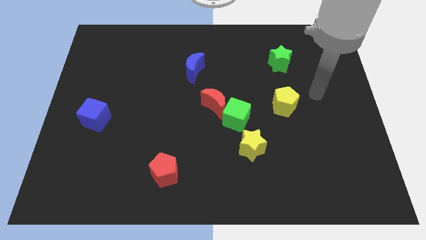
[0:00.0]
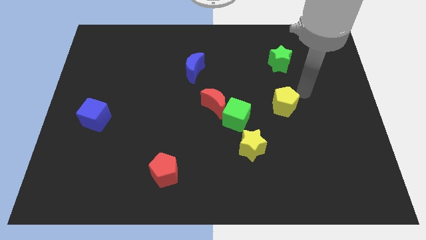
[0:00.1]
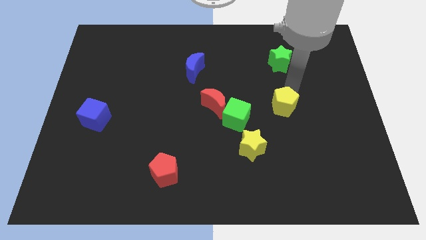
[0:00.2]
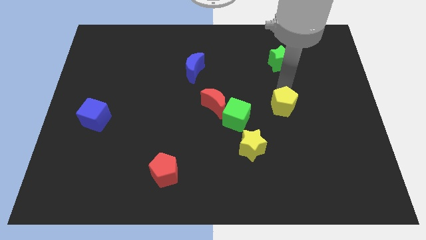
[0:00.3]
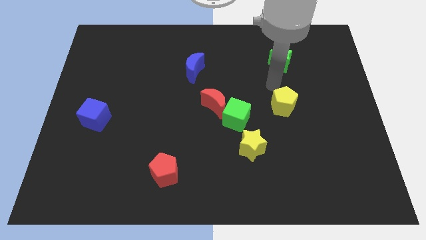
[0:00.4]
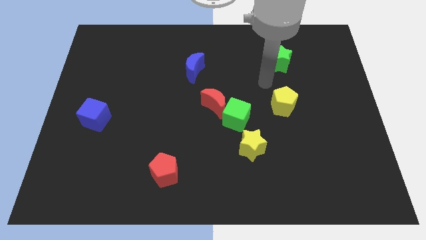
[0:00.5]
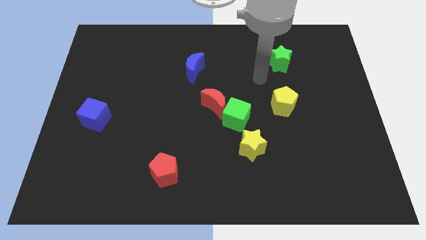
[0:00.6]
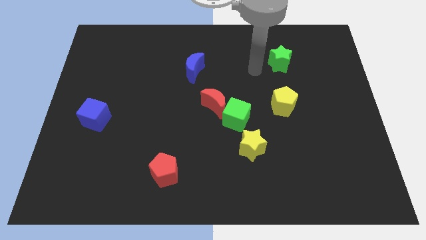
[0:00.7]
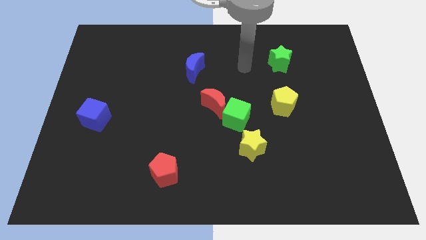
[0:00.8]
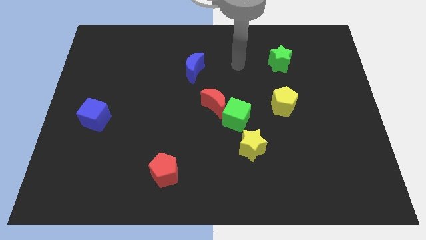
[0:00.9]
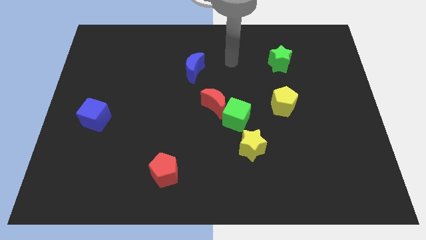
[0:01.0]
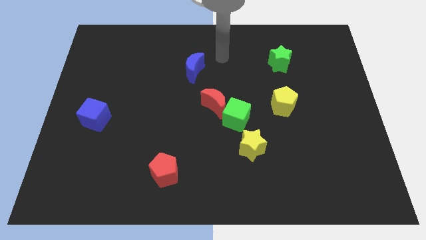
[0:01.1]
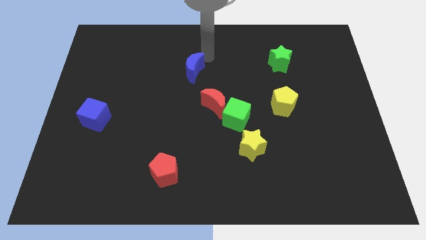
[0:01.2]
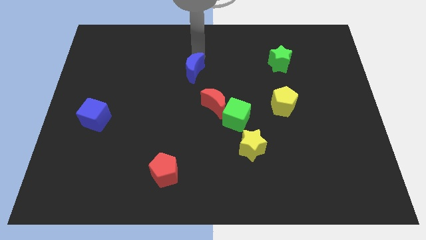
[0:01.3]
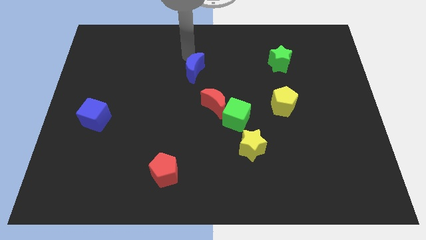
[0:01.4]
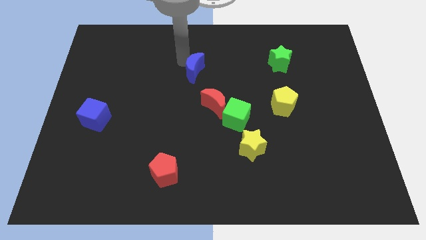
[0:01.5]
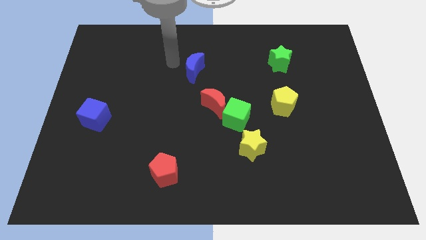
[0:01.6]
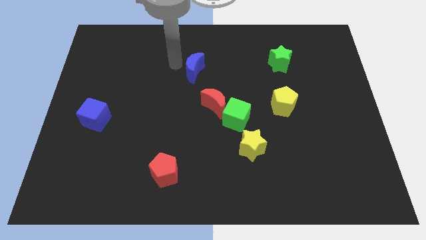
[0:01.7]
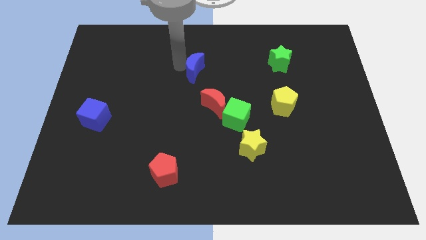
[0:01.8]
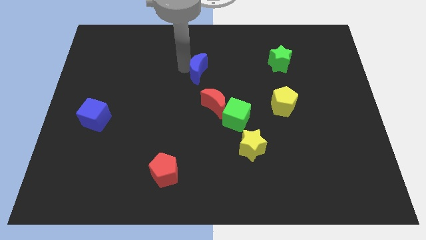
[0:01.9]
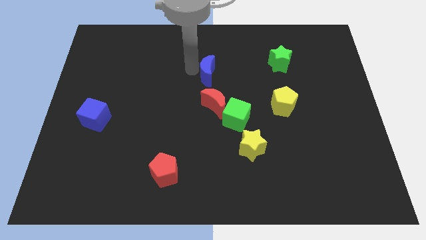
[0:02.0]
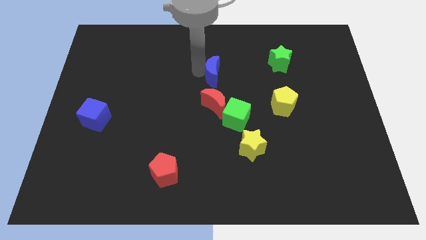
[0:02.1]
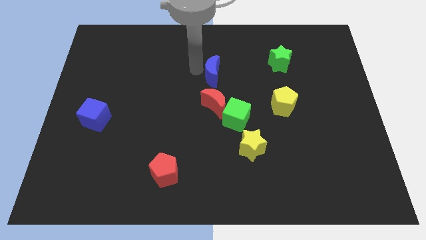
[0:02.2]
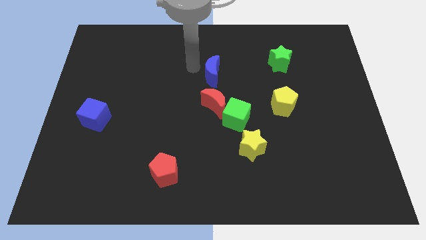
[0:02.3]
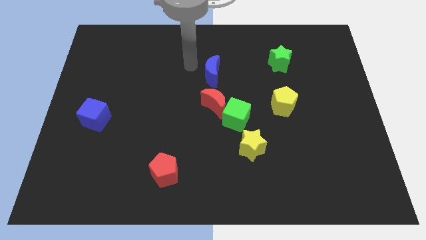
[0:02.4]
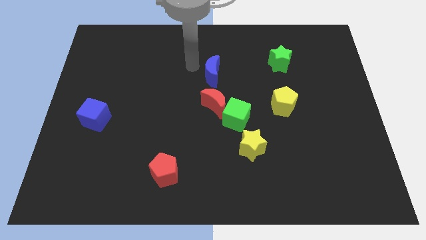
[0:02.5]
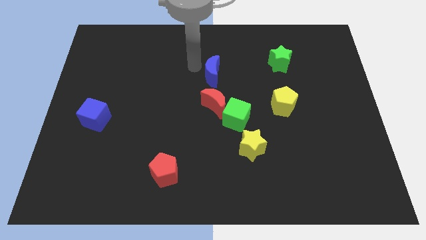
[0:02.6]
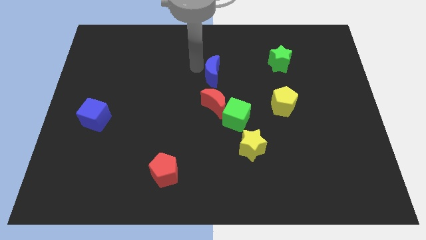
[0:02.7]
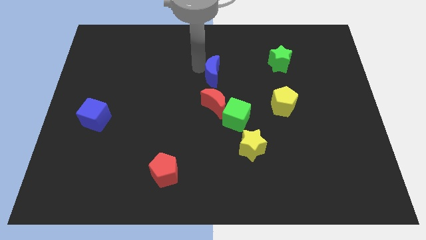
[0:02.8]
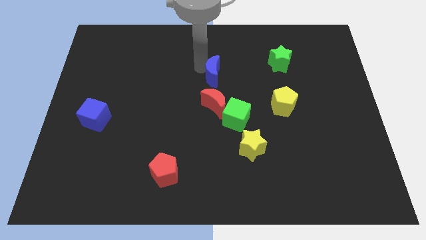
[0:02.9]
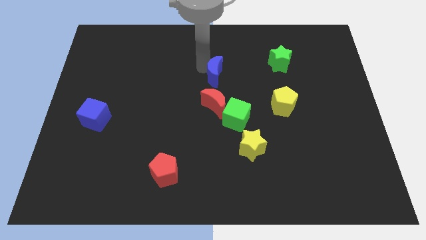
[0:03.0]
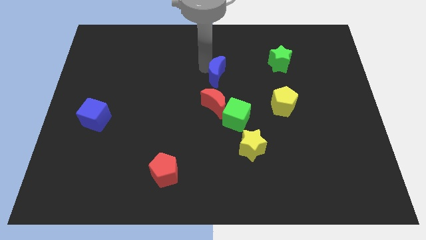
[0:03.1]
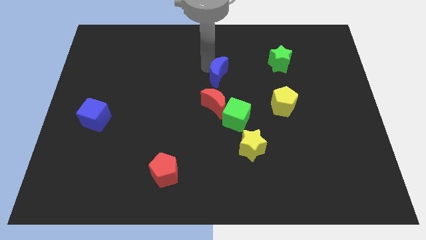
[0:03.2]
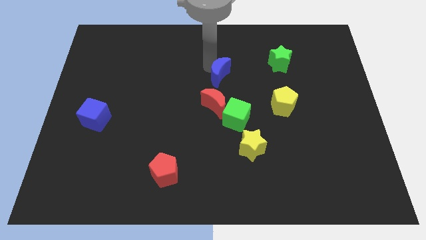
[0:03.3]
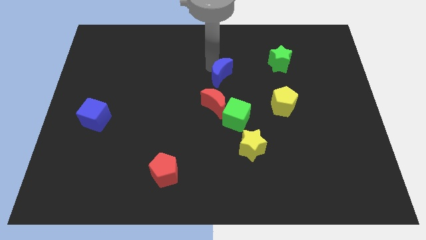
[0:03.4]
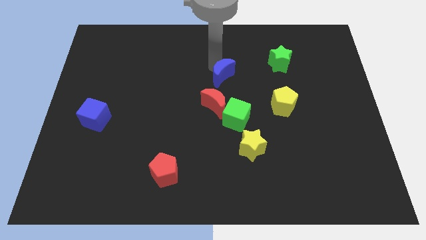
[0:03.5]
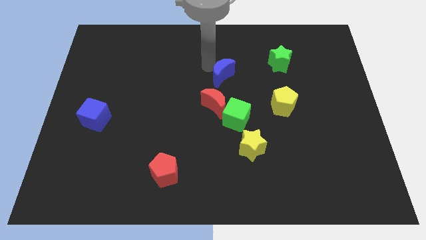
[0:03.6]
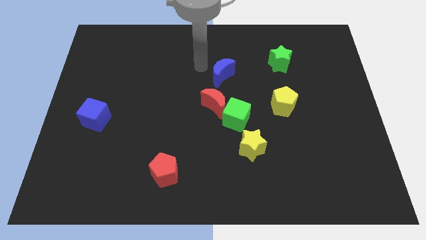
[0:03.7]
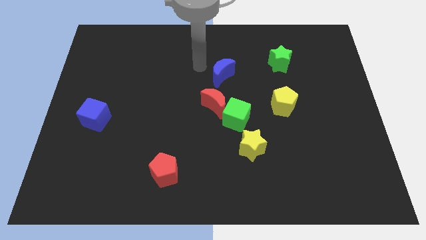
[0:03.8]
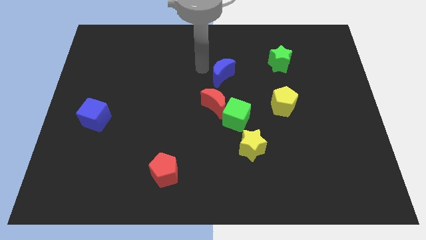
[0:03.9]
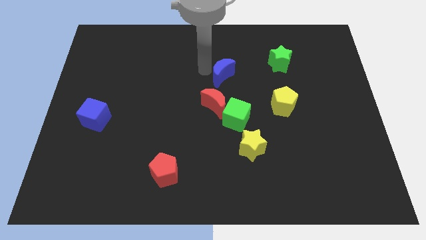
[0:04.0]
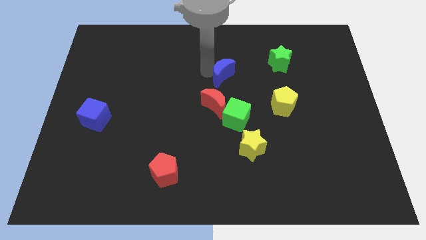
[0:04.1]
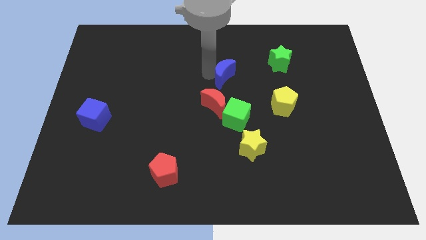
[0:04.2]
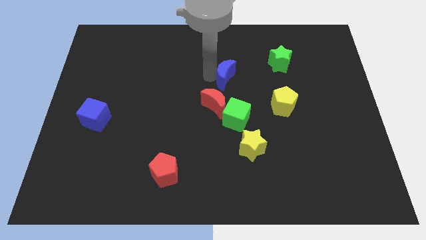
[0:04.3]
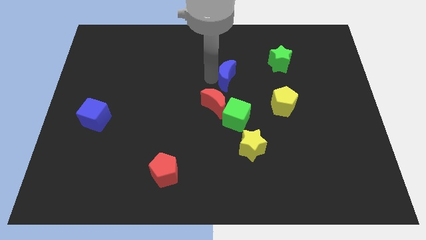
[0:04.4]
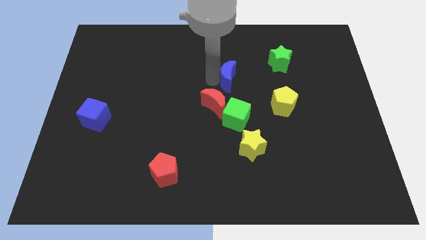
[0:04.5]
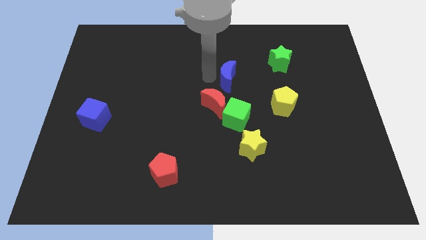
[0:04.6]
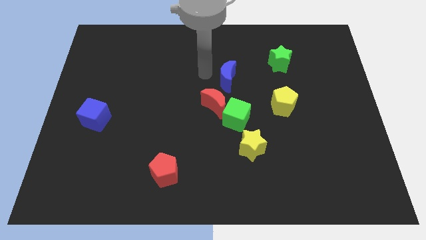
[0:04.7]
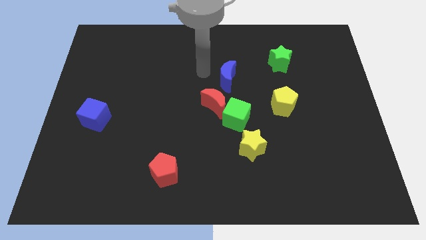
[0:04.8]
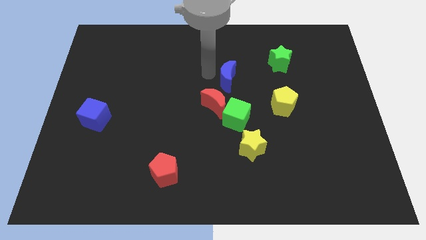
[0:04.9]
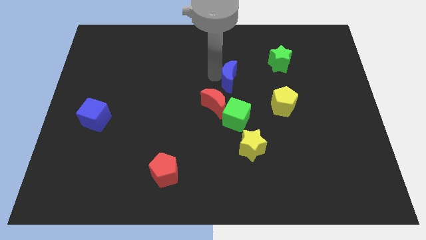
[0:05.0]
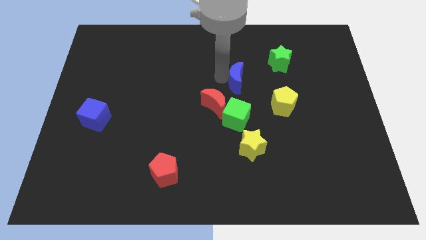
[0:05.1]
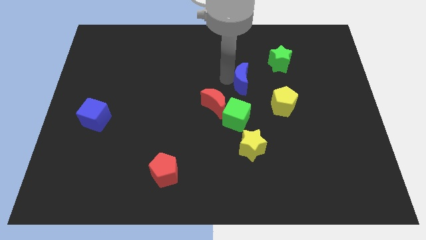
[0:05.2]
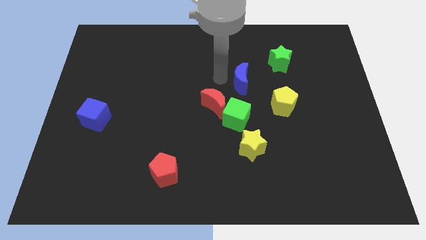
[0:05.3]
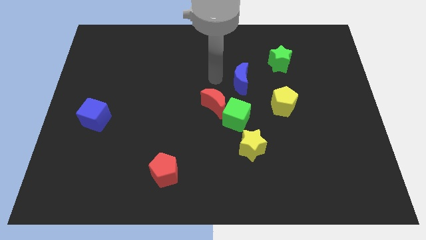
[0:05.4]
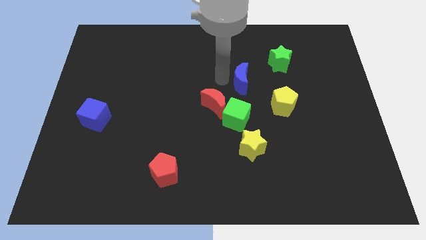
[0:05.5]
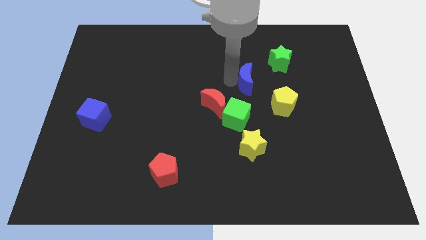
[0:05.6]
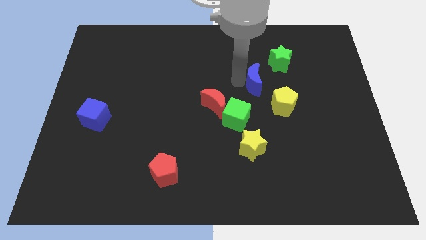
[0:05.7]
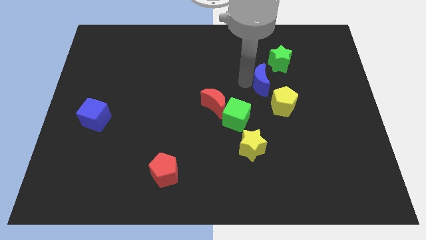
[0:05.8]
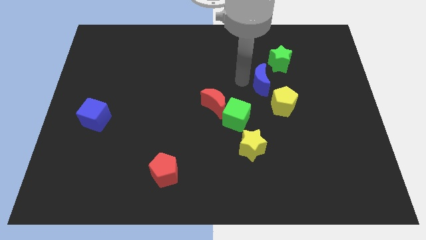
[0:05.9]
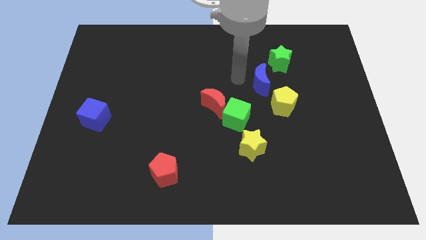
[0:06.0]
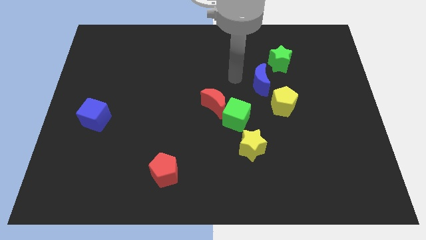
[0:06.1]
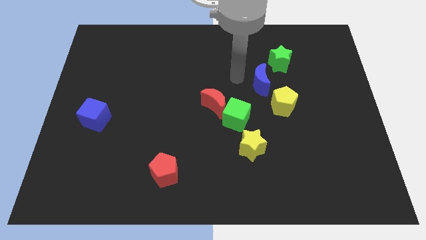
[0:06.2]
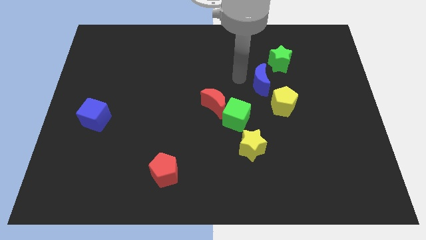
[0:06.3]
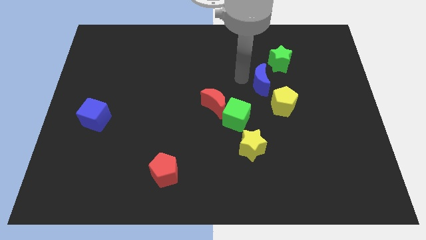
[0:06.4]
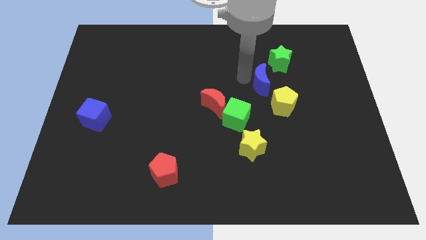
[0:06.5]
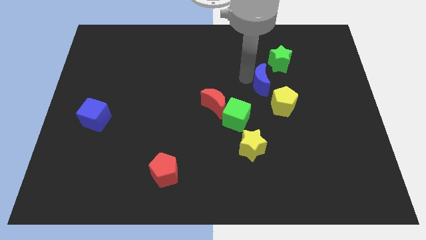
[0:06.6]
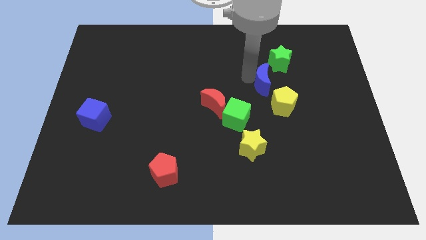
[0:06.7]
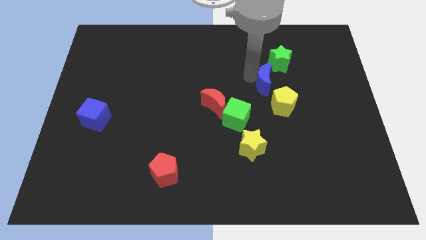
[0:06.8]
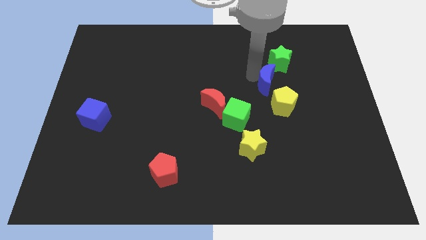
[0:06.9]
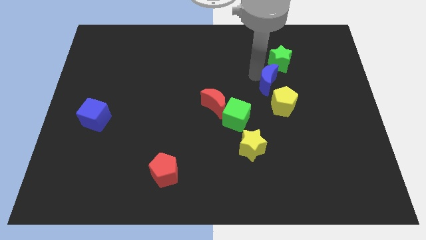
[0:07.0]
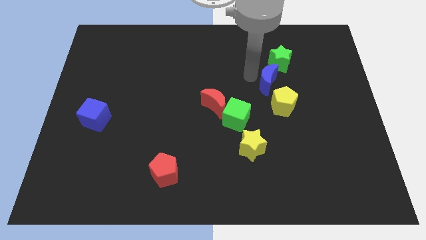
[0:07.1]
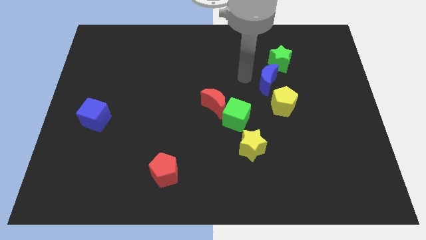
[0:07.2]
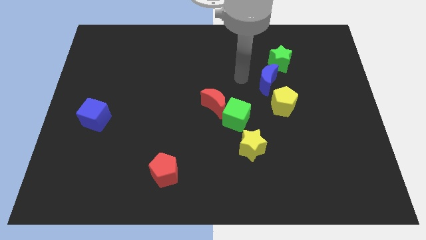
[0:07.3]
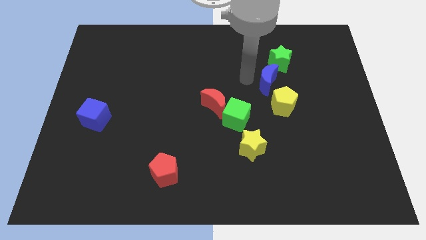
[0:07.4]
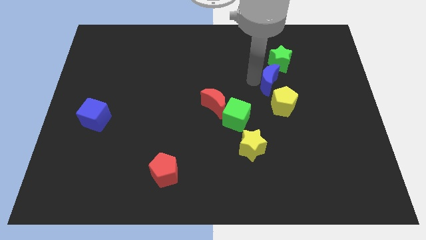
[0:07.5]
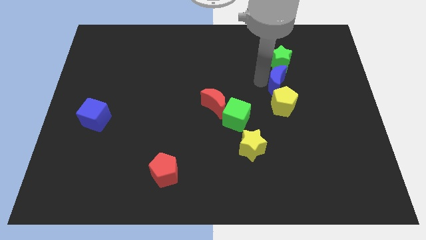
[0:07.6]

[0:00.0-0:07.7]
push the blue moon to the right

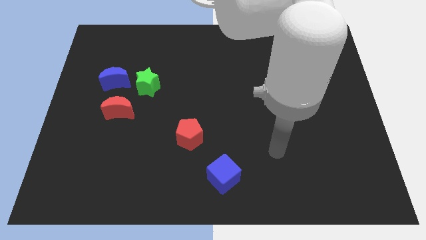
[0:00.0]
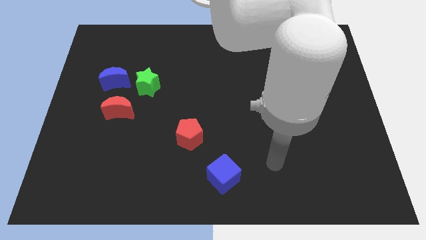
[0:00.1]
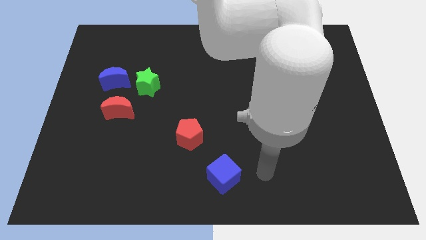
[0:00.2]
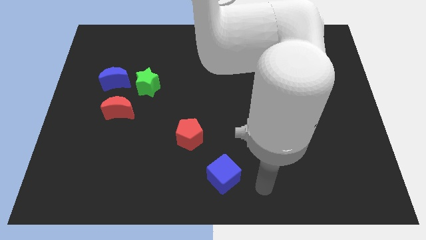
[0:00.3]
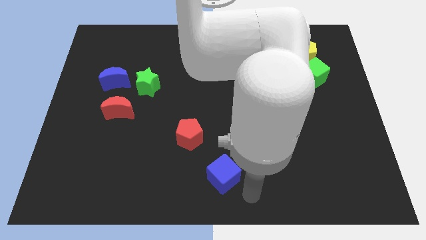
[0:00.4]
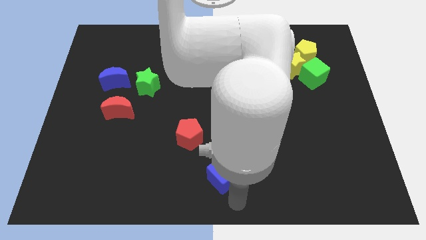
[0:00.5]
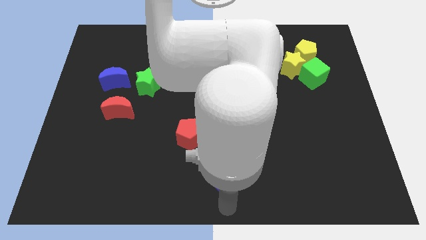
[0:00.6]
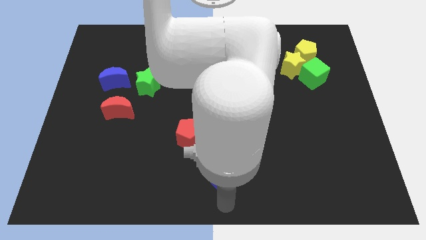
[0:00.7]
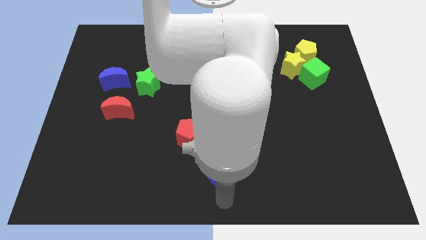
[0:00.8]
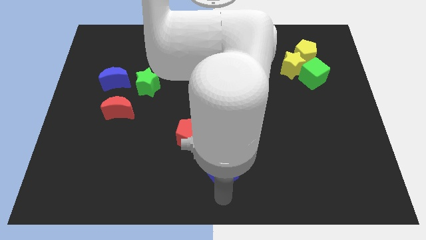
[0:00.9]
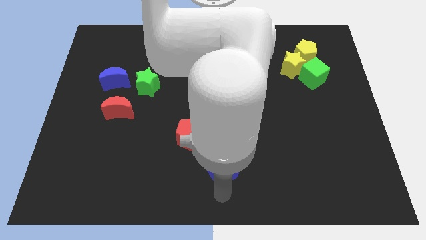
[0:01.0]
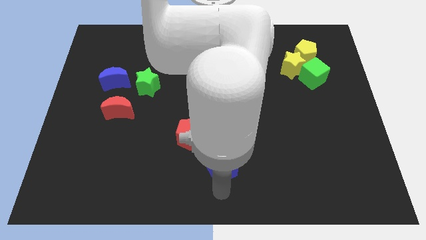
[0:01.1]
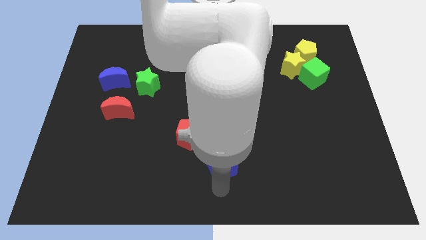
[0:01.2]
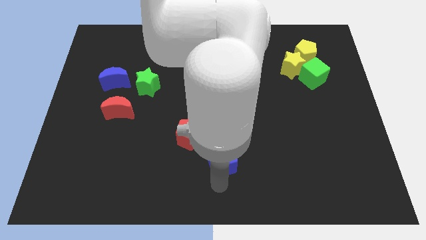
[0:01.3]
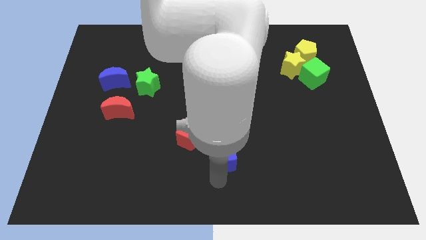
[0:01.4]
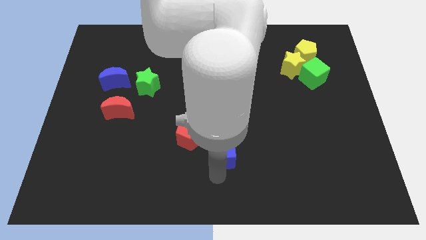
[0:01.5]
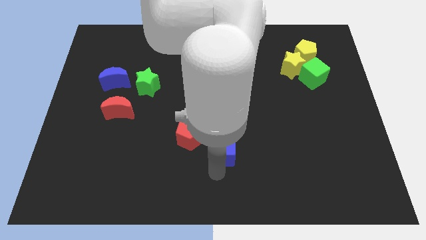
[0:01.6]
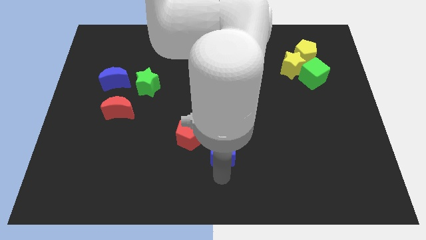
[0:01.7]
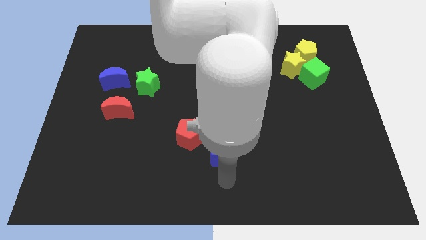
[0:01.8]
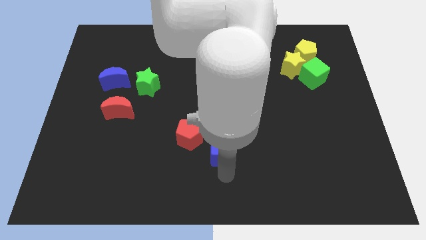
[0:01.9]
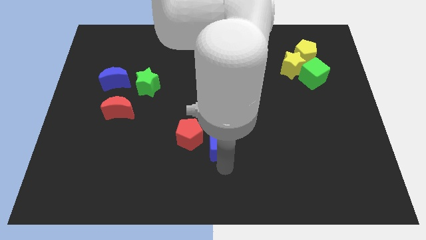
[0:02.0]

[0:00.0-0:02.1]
move the blue cube somewhat upwards
